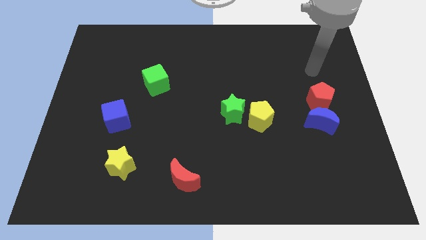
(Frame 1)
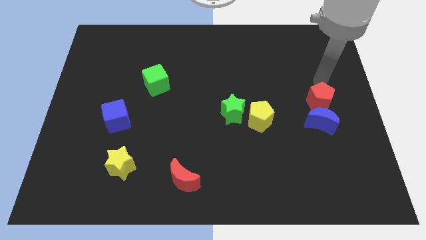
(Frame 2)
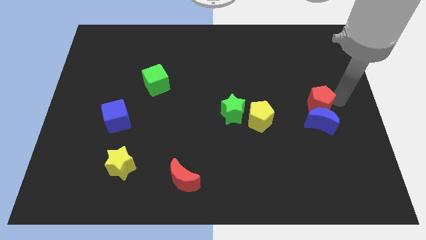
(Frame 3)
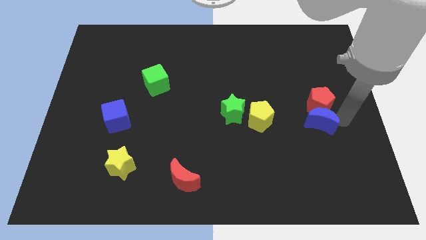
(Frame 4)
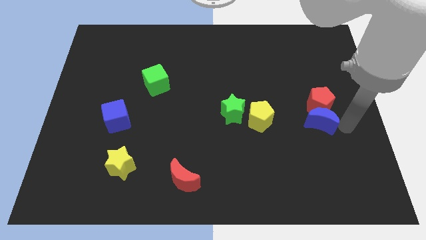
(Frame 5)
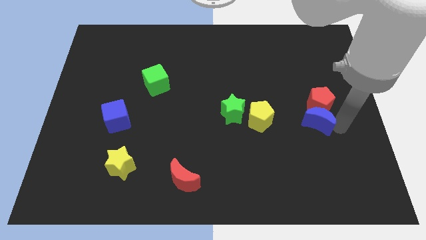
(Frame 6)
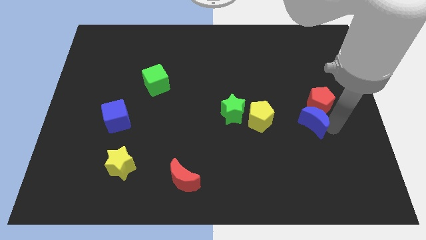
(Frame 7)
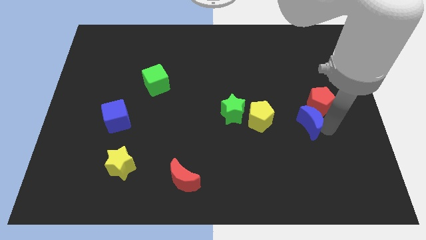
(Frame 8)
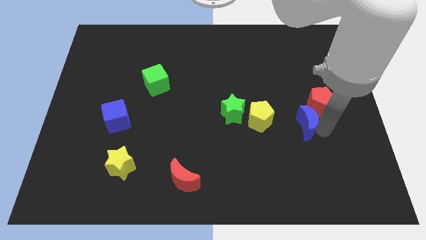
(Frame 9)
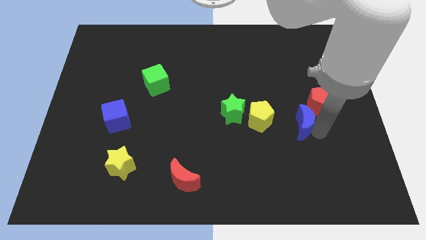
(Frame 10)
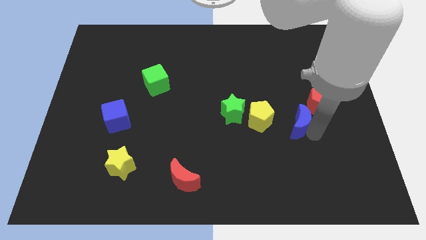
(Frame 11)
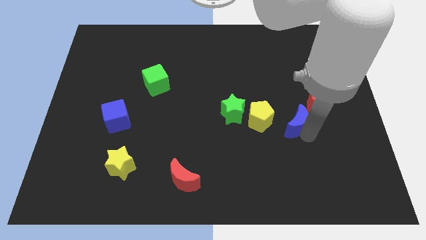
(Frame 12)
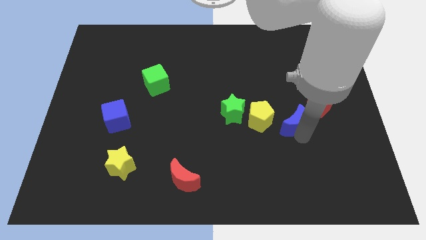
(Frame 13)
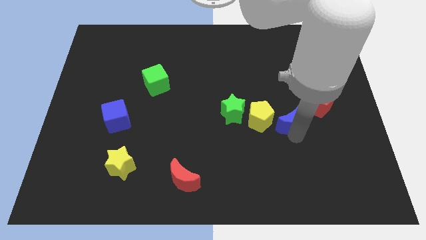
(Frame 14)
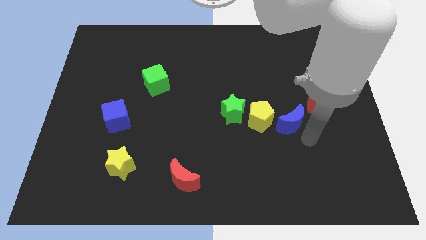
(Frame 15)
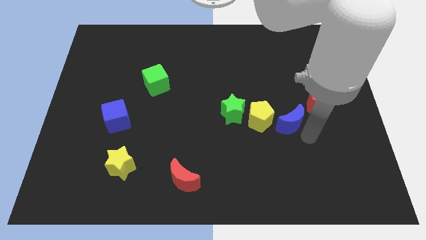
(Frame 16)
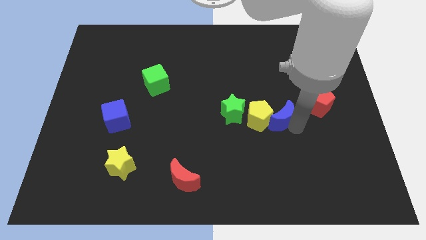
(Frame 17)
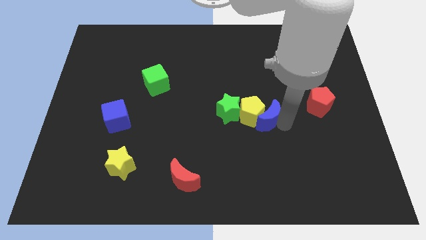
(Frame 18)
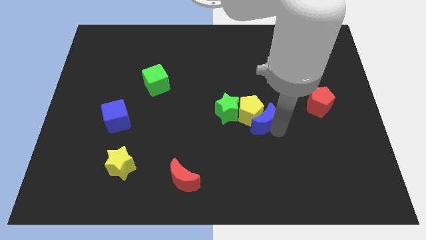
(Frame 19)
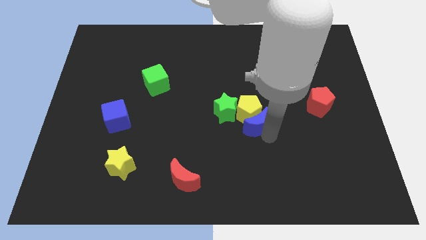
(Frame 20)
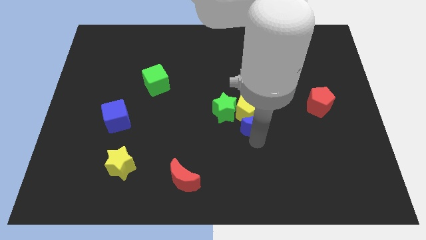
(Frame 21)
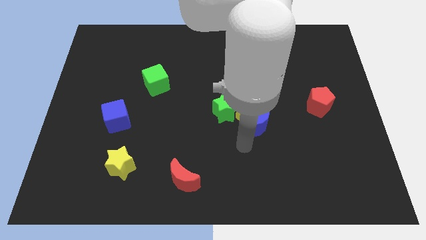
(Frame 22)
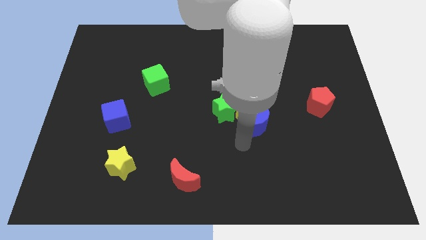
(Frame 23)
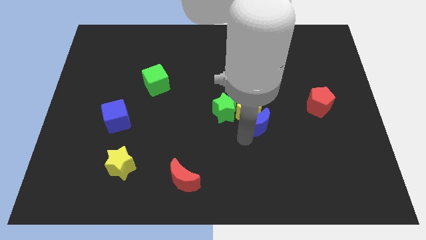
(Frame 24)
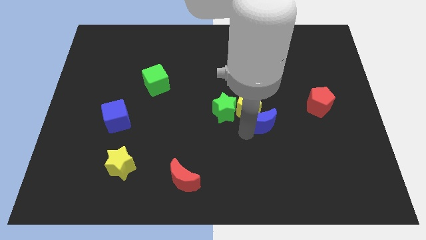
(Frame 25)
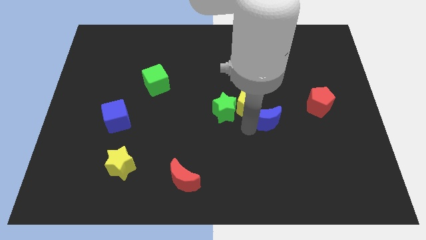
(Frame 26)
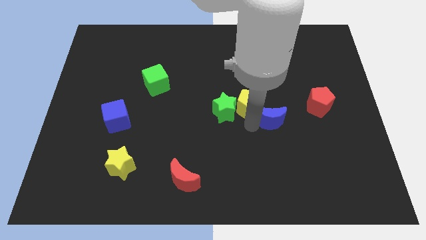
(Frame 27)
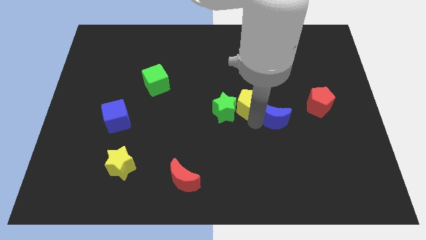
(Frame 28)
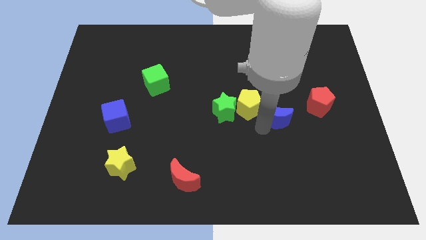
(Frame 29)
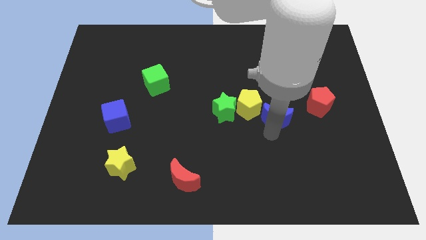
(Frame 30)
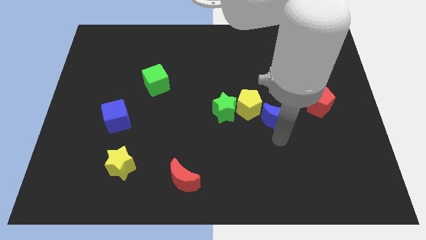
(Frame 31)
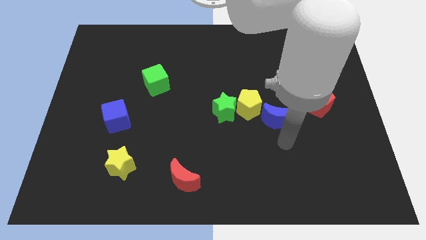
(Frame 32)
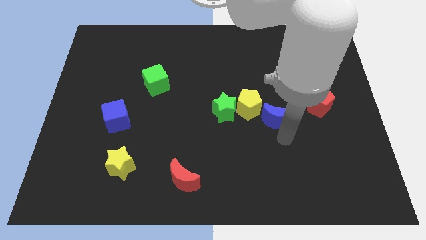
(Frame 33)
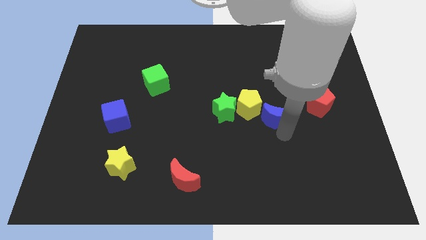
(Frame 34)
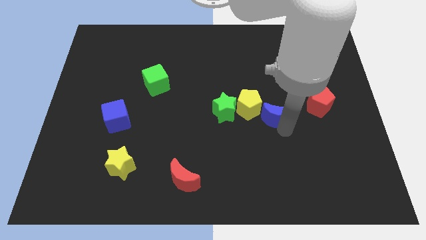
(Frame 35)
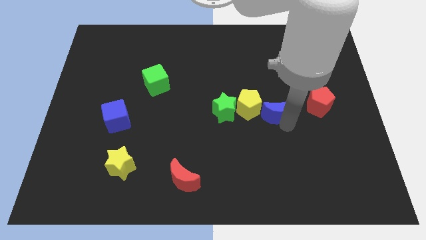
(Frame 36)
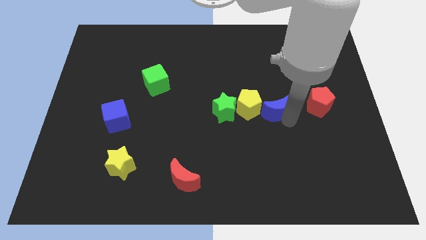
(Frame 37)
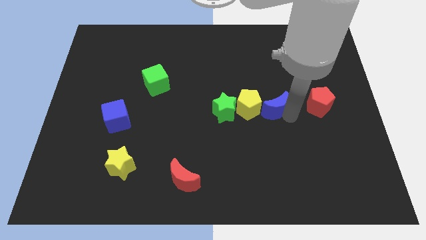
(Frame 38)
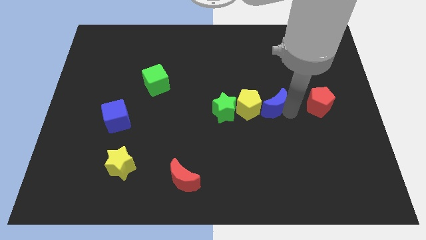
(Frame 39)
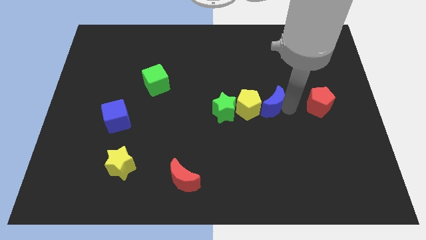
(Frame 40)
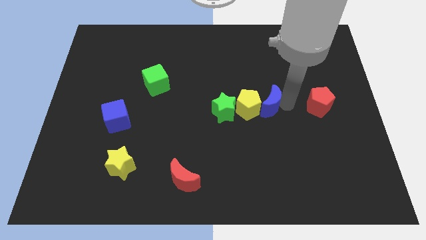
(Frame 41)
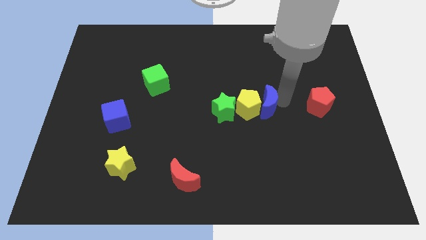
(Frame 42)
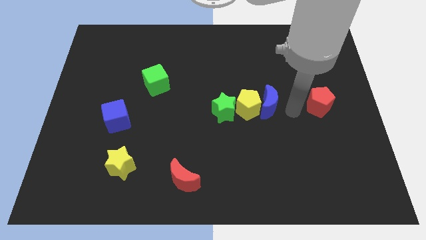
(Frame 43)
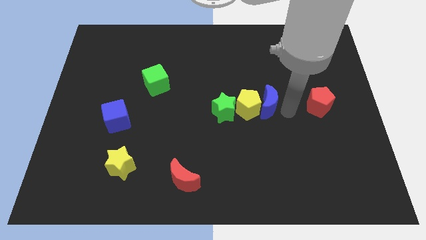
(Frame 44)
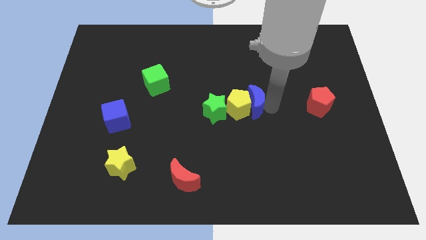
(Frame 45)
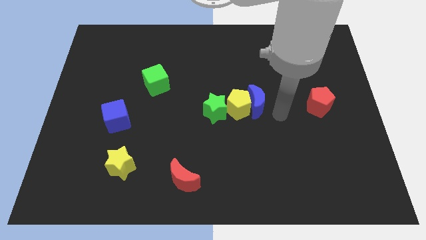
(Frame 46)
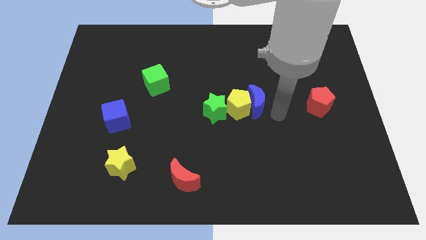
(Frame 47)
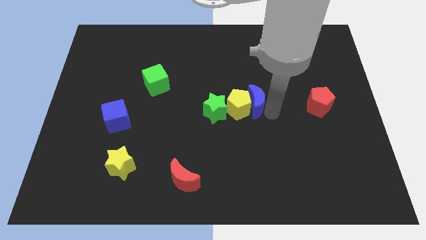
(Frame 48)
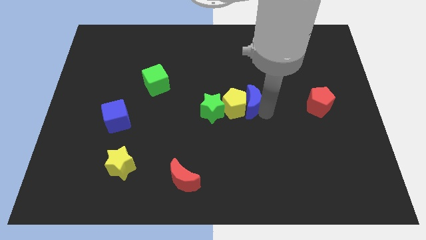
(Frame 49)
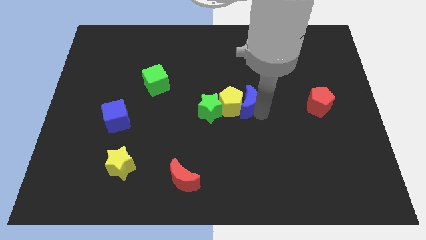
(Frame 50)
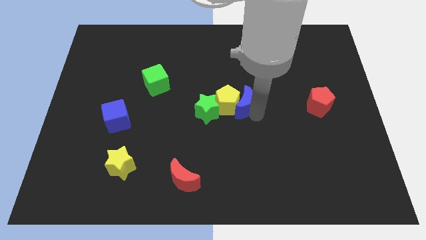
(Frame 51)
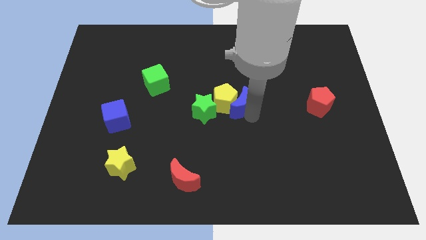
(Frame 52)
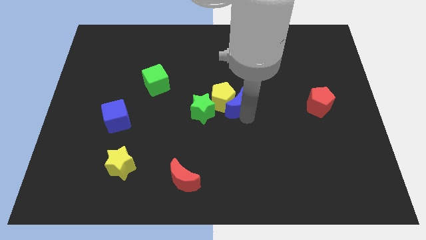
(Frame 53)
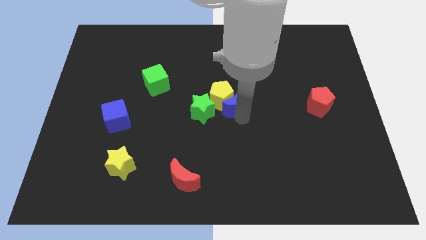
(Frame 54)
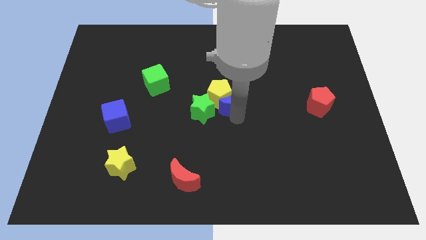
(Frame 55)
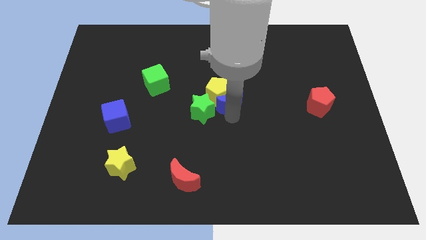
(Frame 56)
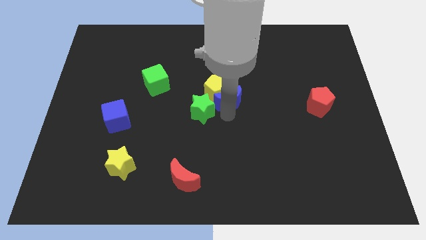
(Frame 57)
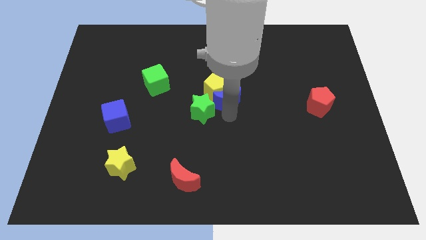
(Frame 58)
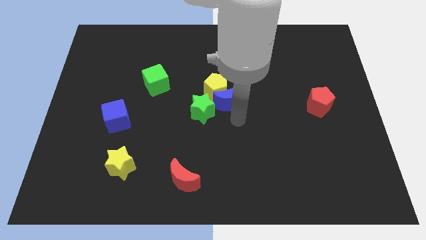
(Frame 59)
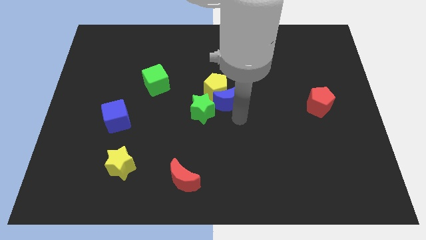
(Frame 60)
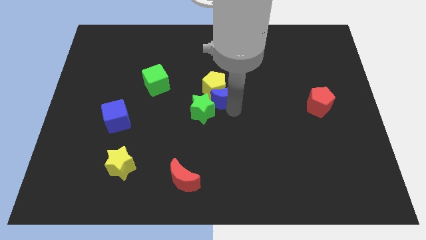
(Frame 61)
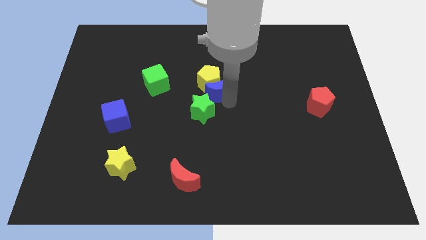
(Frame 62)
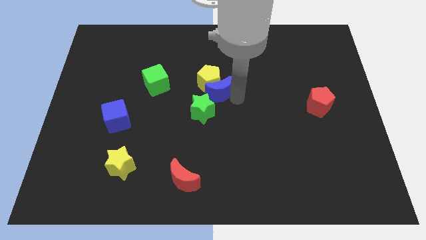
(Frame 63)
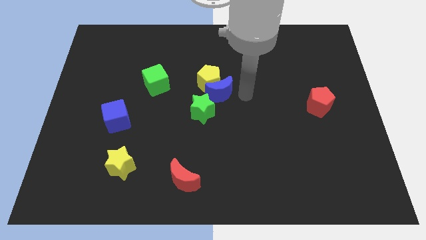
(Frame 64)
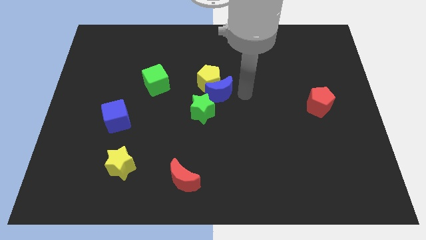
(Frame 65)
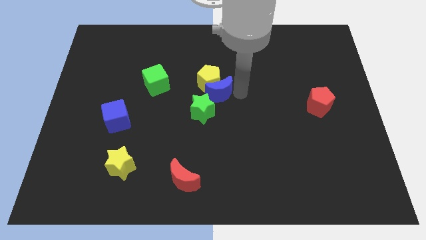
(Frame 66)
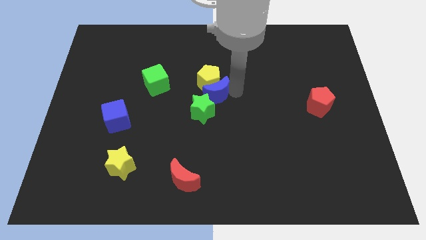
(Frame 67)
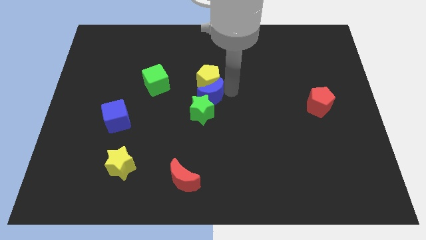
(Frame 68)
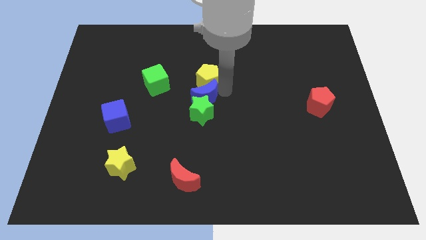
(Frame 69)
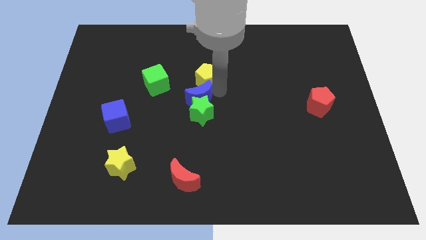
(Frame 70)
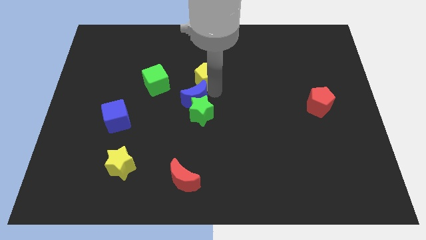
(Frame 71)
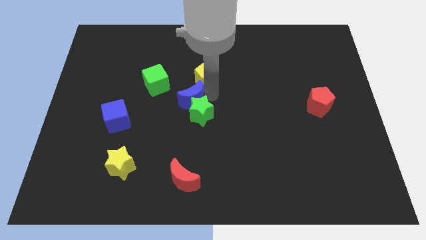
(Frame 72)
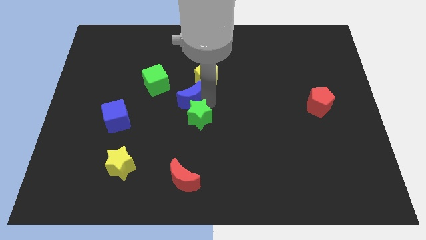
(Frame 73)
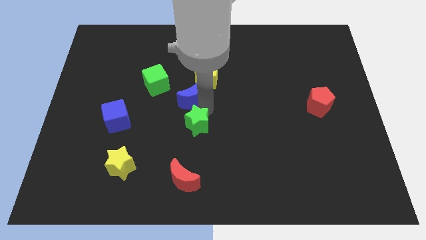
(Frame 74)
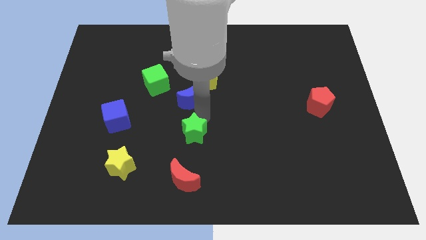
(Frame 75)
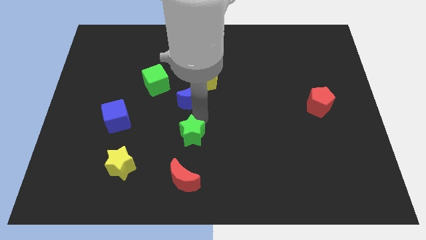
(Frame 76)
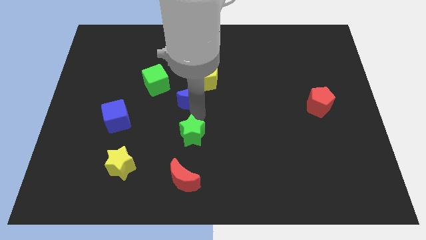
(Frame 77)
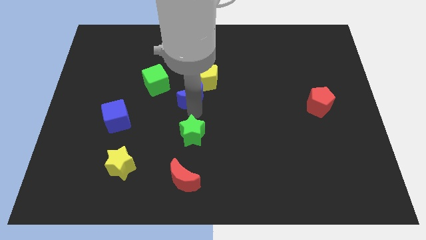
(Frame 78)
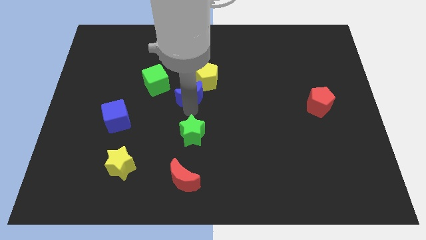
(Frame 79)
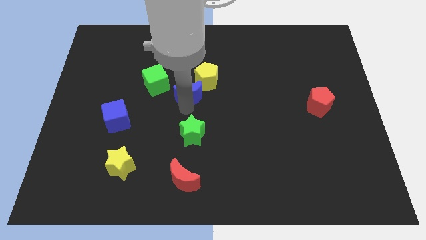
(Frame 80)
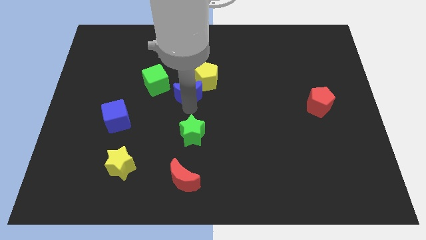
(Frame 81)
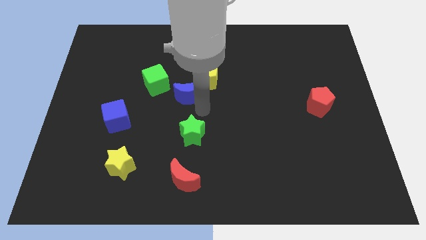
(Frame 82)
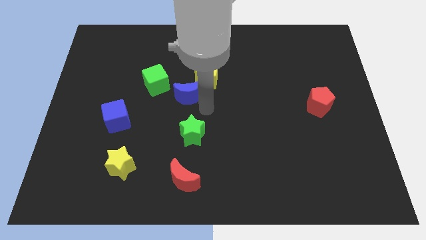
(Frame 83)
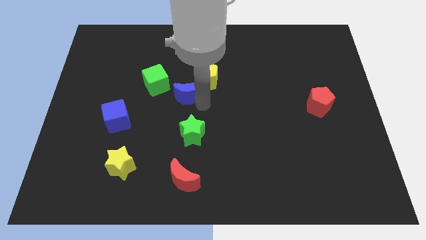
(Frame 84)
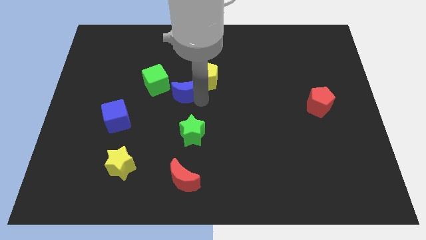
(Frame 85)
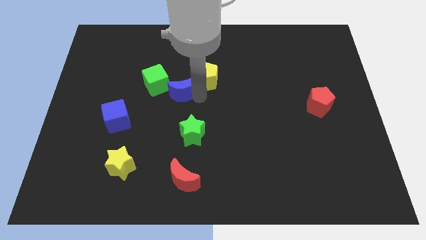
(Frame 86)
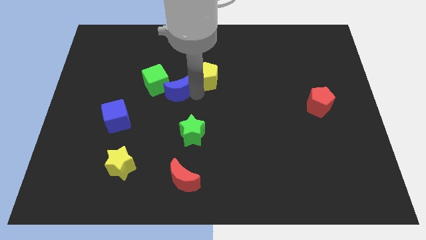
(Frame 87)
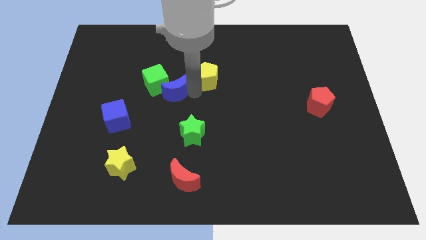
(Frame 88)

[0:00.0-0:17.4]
move the blue moon next to the green cube
